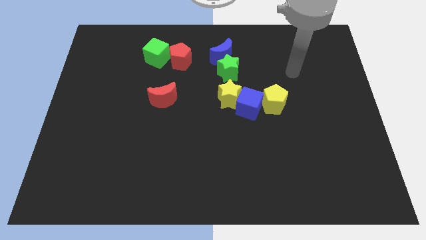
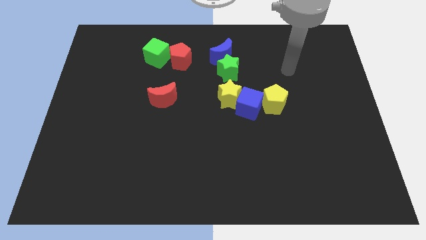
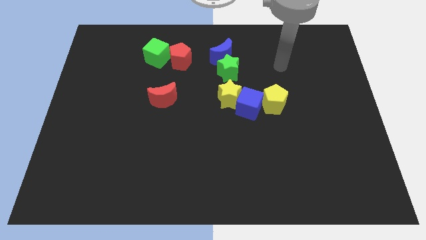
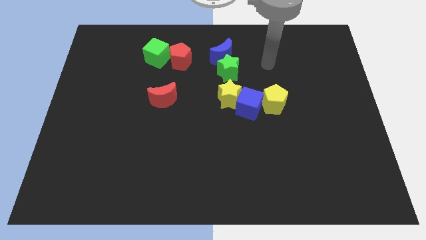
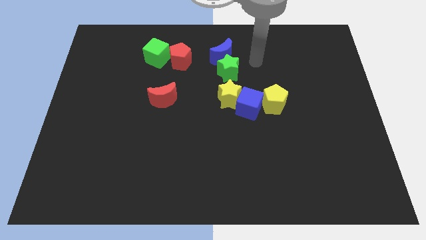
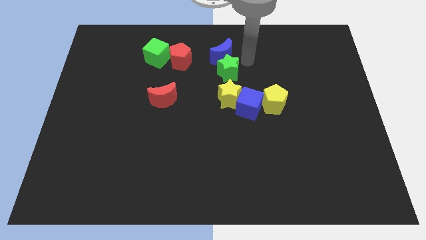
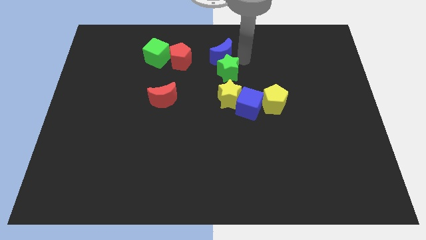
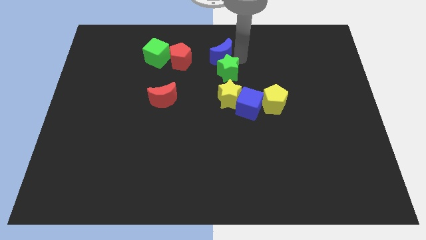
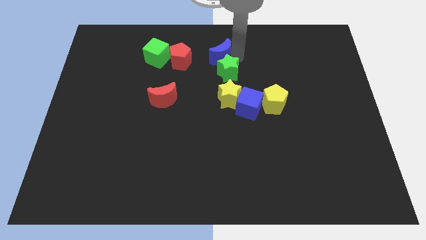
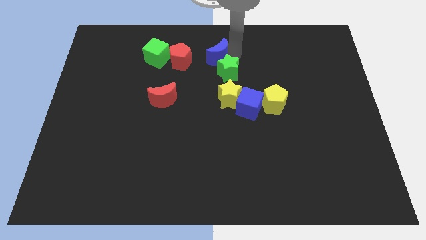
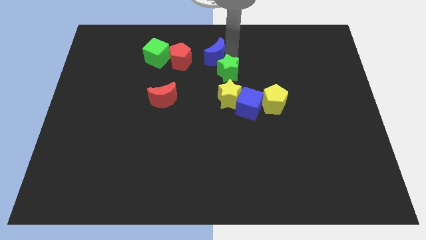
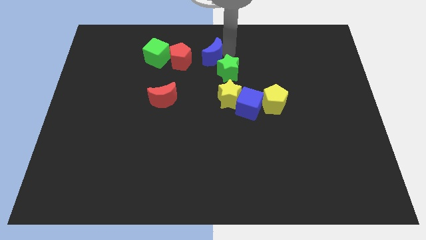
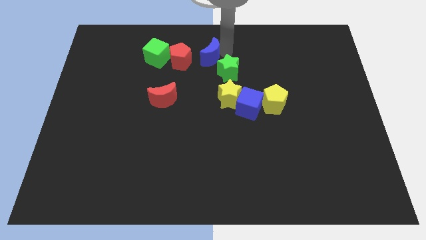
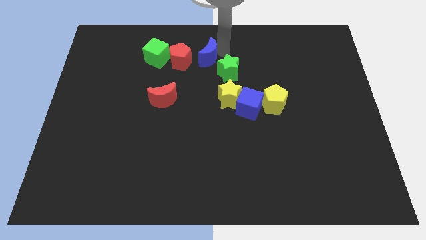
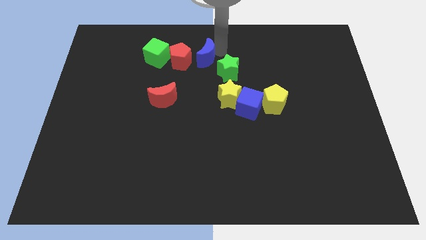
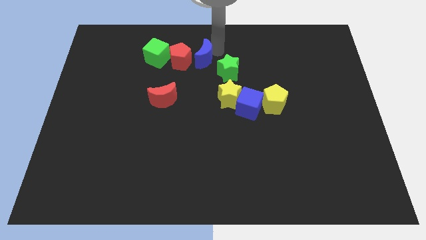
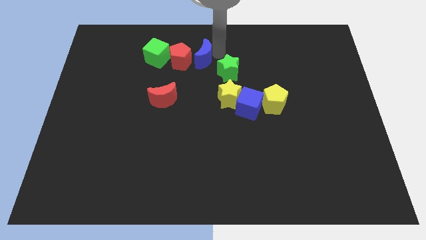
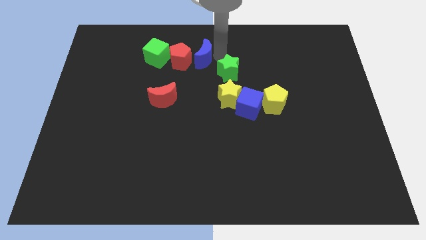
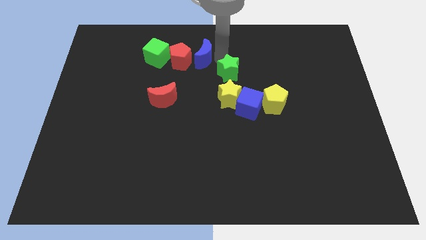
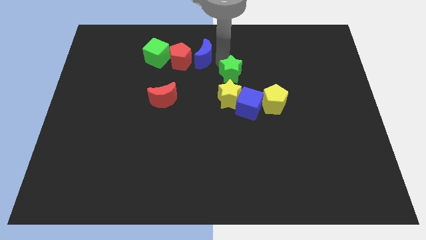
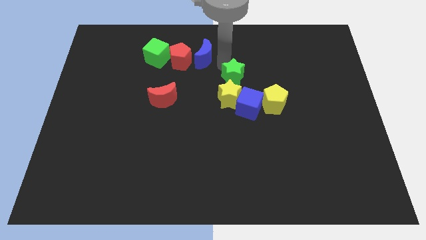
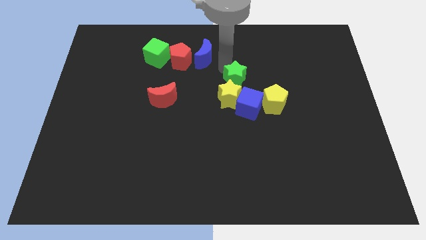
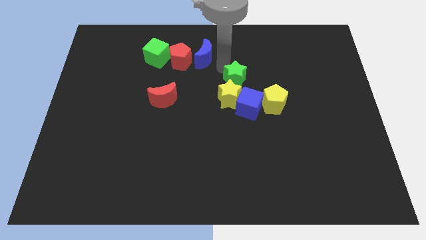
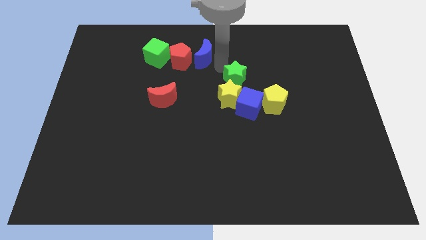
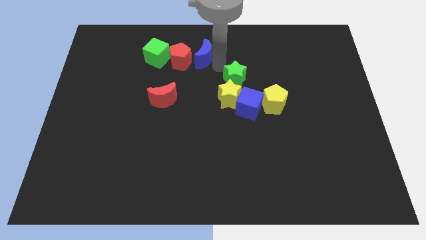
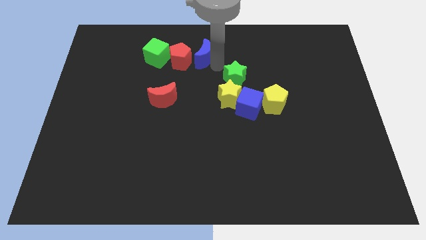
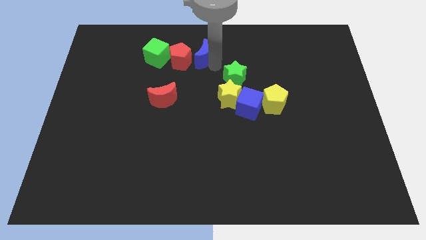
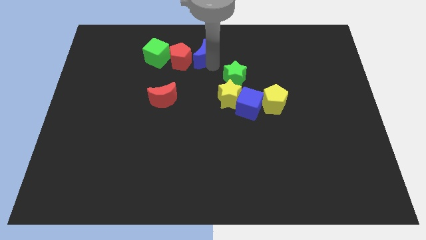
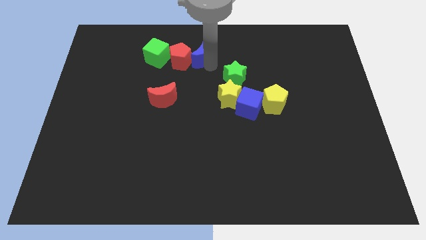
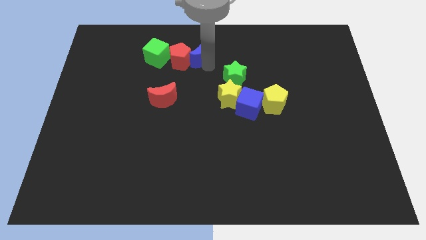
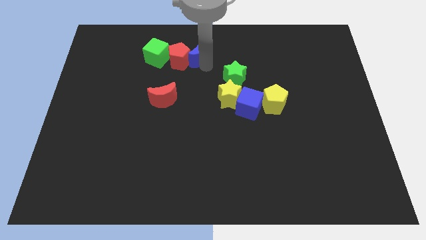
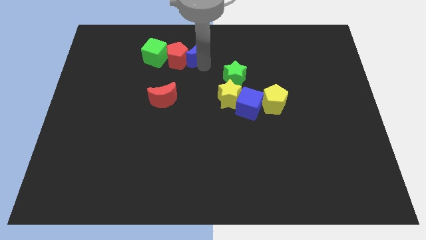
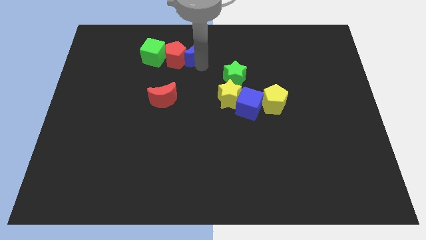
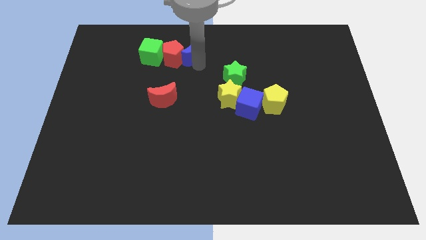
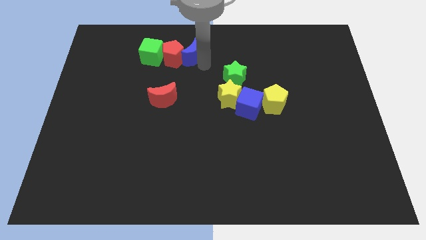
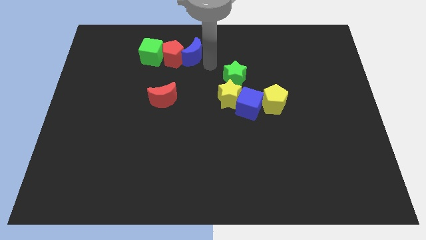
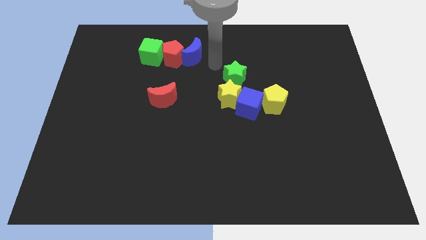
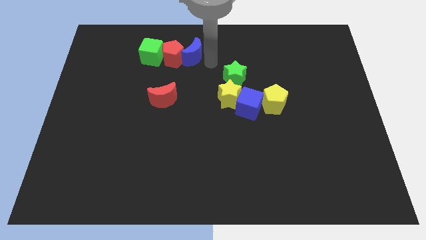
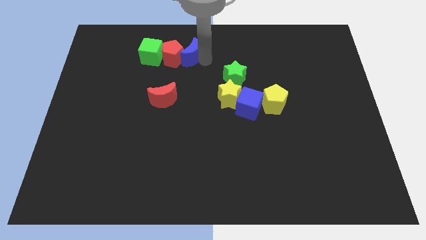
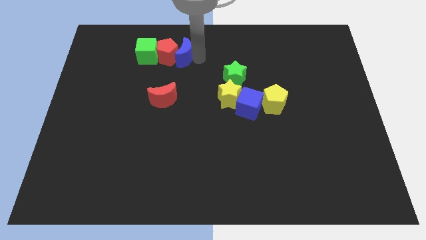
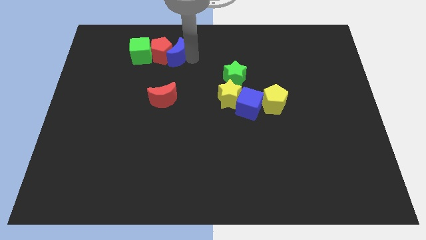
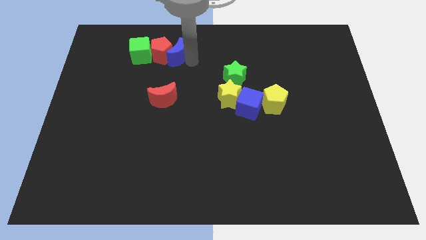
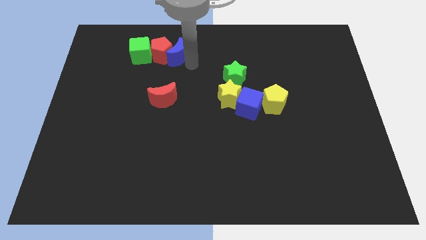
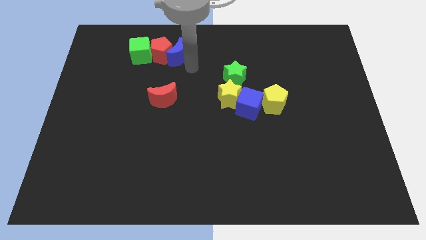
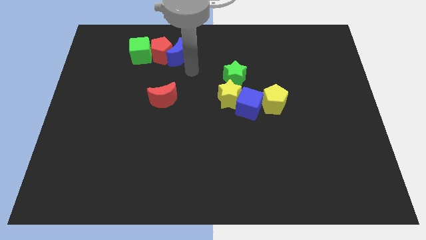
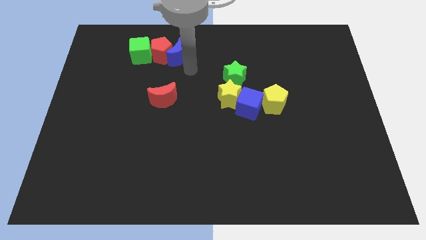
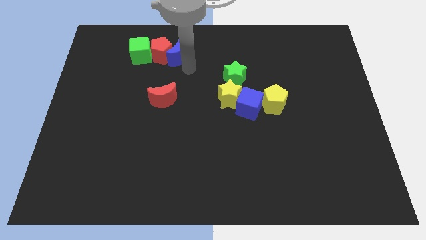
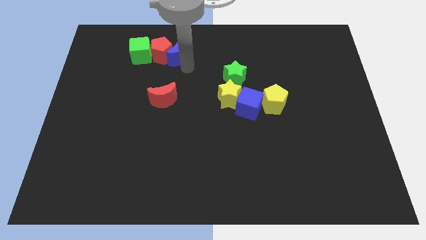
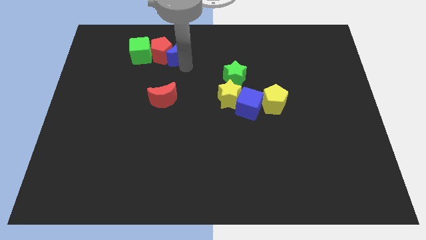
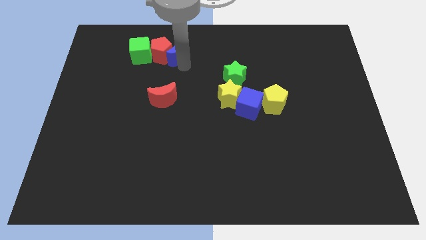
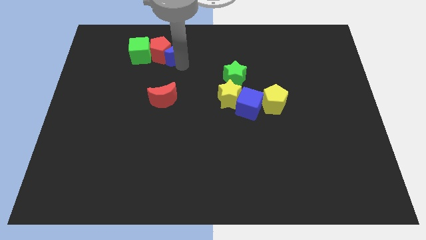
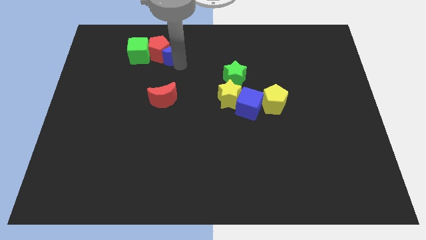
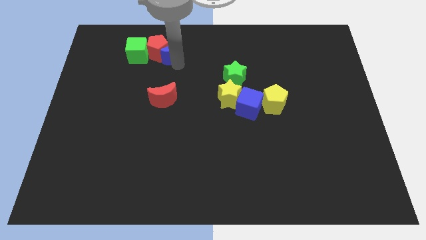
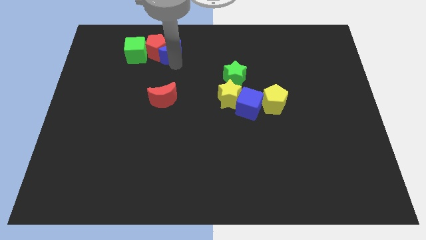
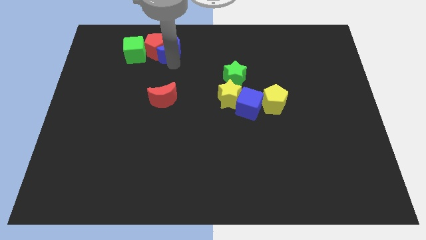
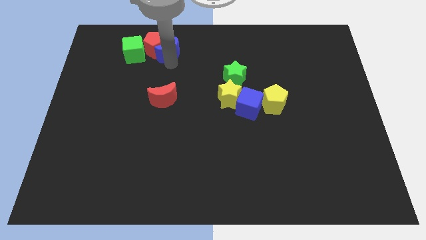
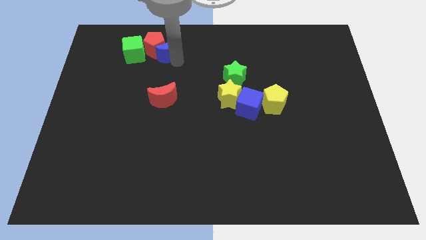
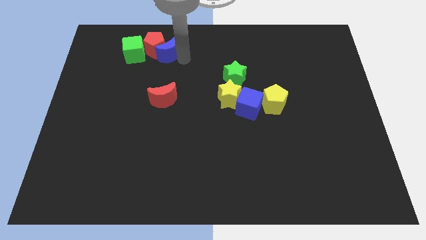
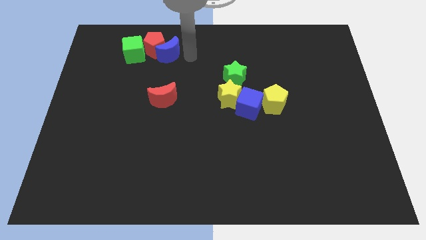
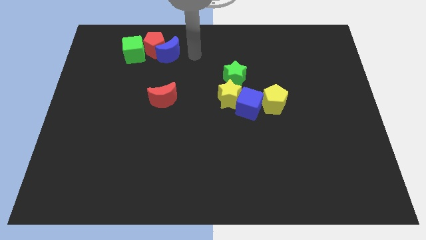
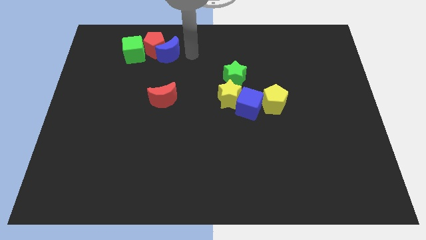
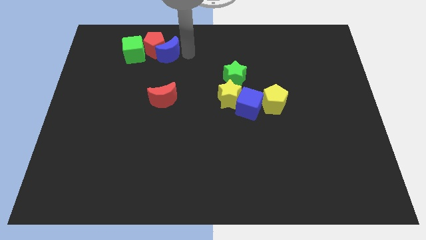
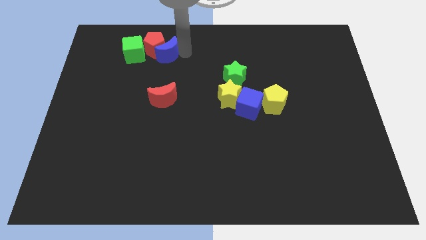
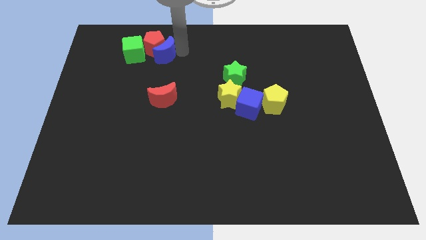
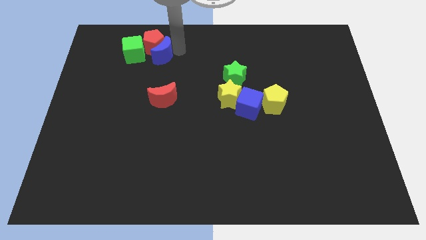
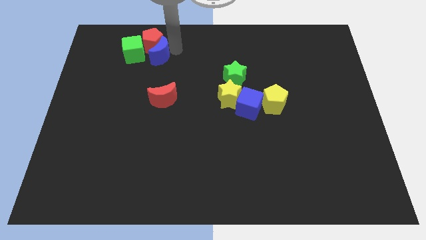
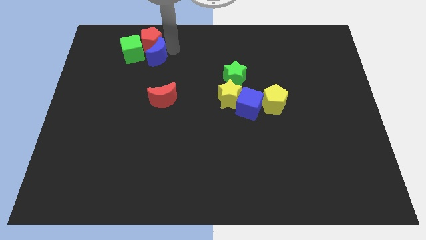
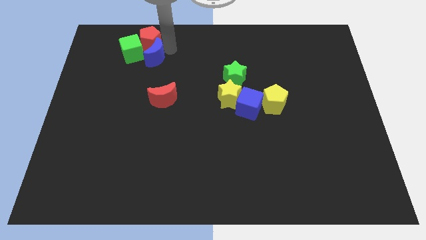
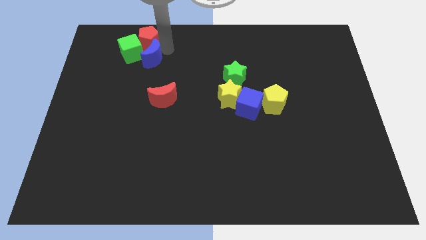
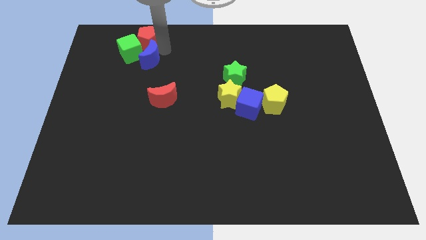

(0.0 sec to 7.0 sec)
push the blue moon to the green cube

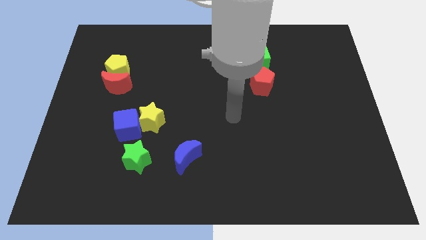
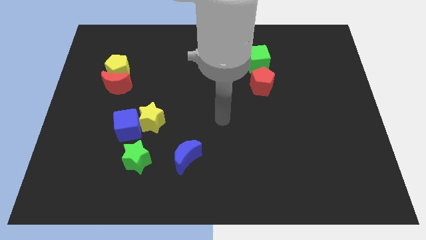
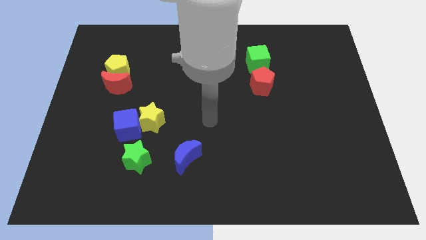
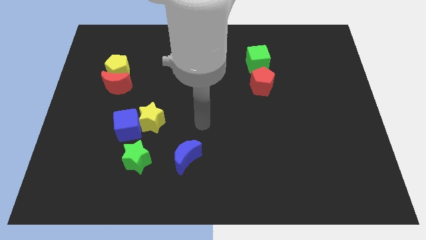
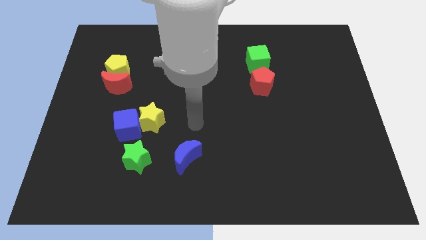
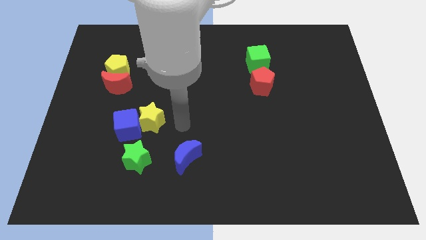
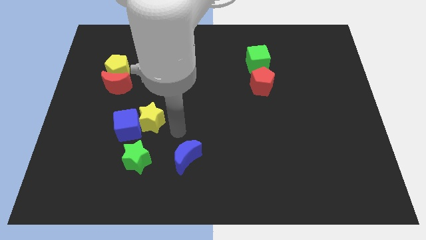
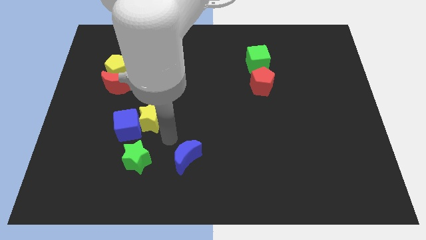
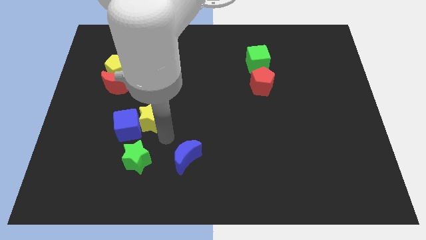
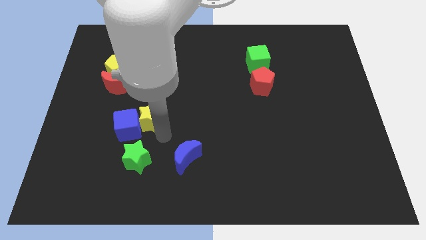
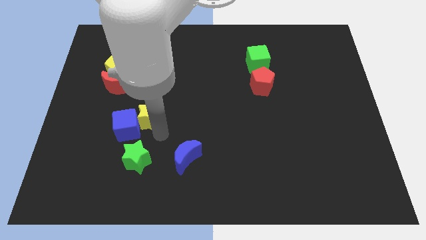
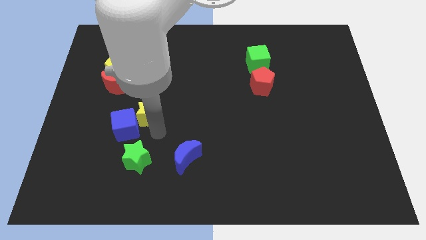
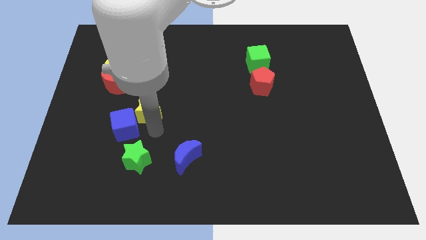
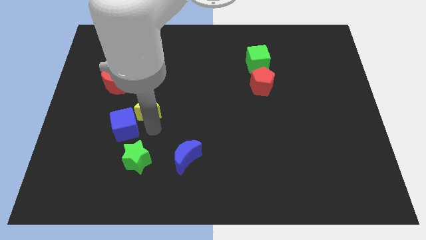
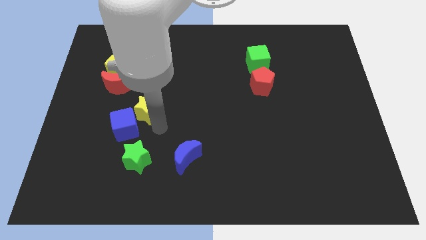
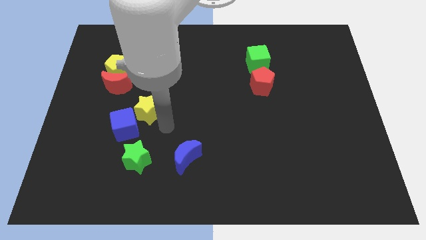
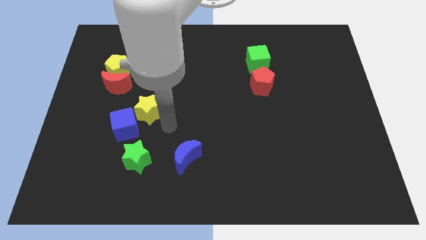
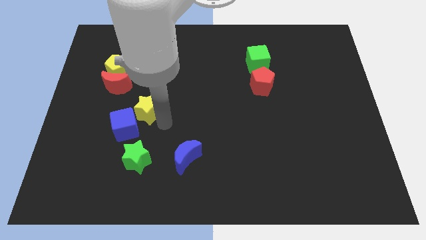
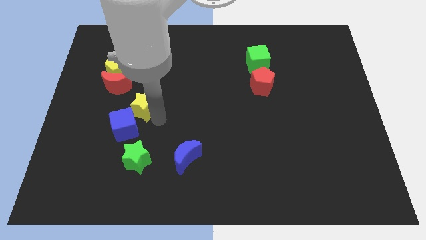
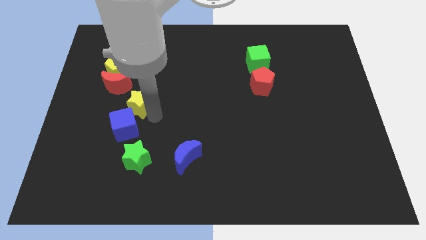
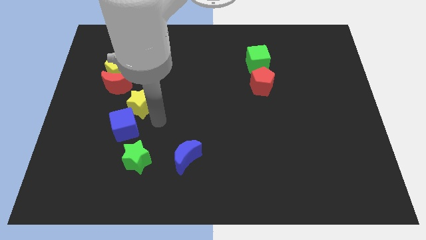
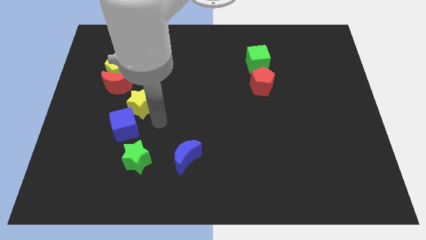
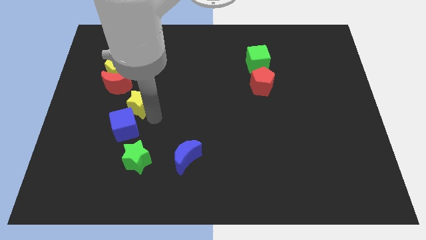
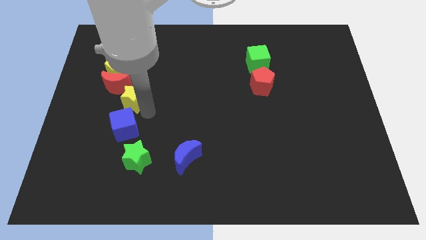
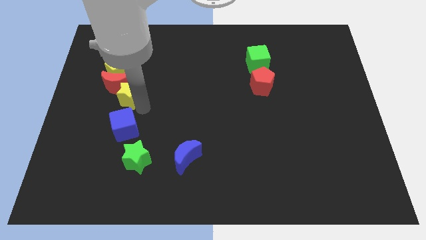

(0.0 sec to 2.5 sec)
put the yellow star to the red moon
